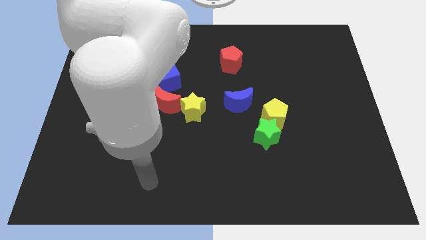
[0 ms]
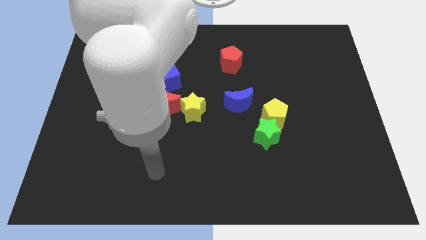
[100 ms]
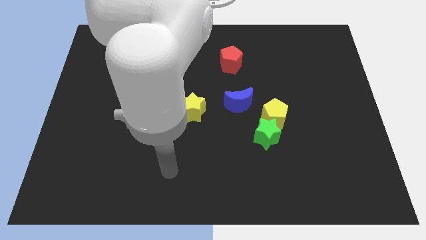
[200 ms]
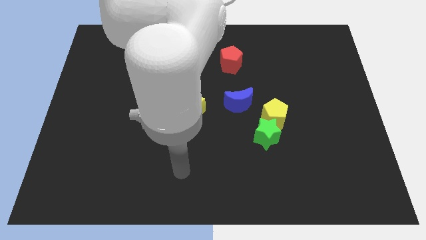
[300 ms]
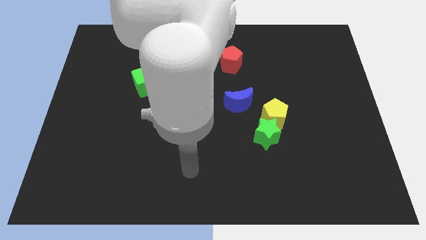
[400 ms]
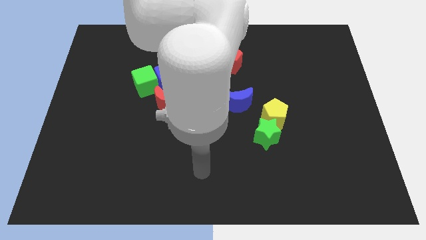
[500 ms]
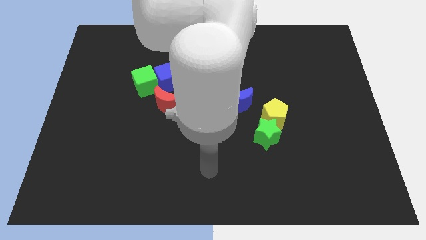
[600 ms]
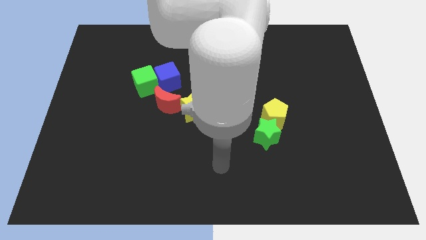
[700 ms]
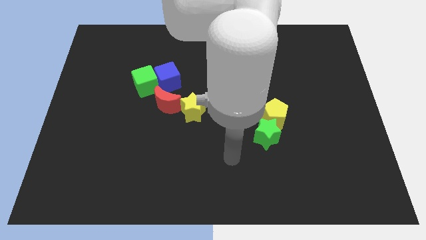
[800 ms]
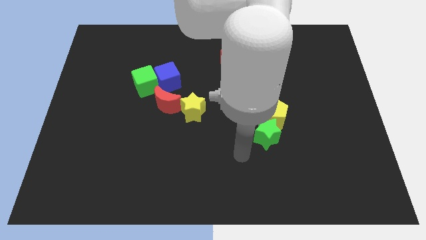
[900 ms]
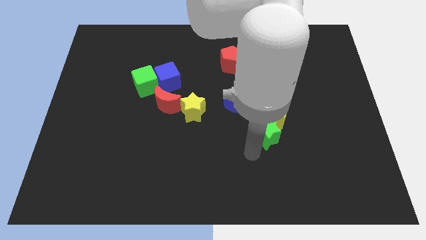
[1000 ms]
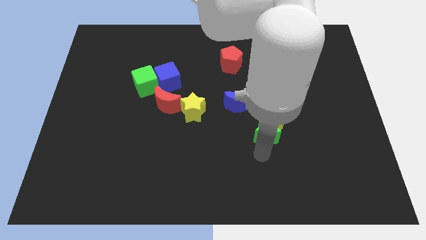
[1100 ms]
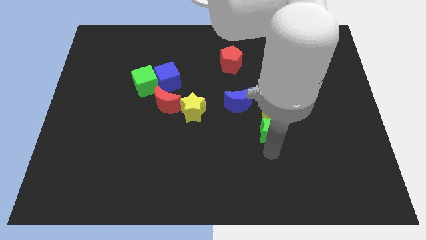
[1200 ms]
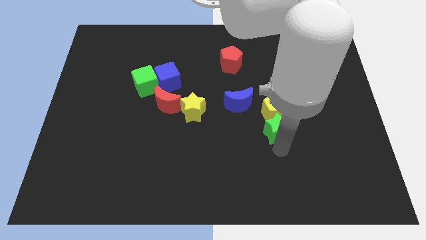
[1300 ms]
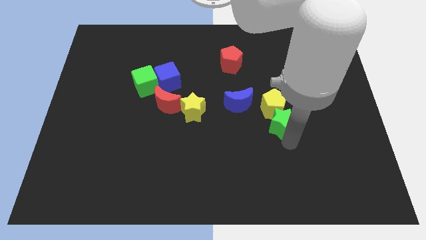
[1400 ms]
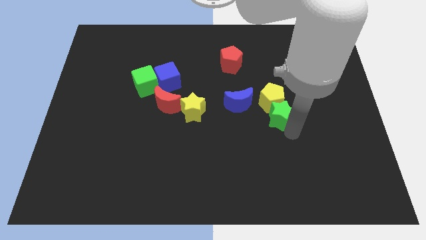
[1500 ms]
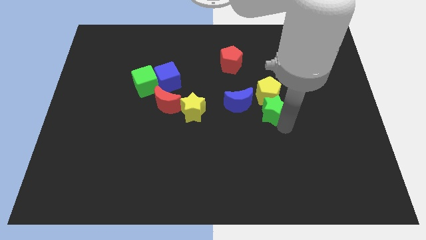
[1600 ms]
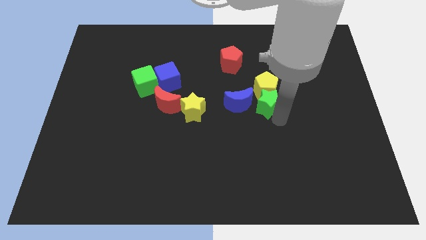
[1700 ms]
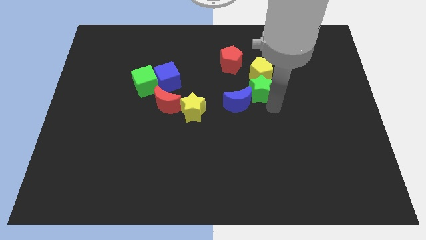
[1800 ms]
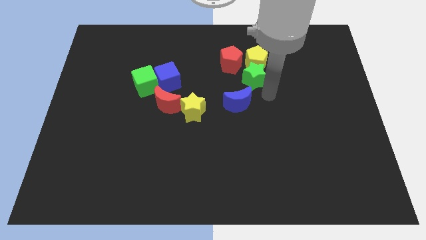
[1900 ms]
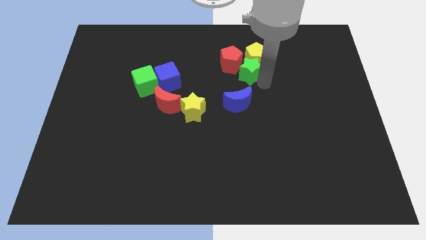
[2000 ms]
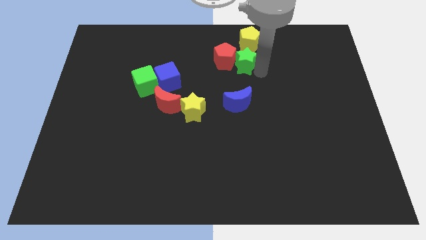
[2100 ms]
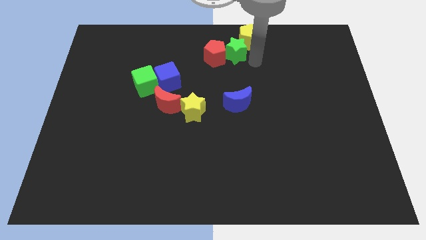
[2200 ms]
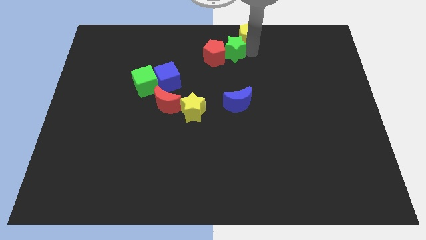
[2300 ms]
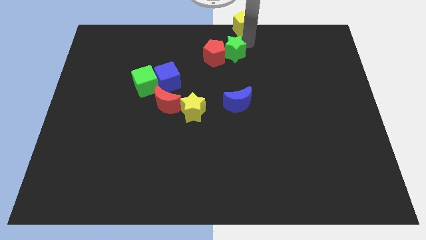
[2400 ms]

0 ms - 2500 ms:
separate the green star from the yellow pentagon

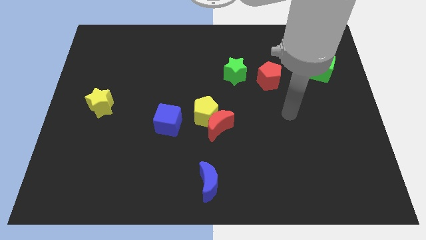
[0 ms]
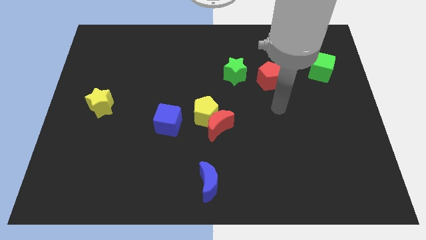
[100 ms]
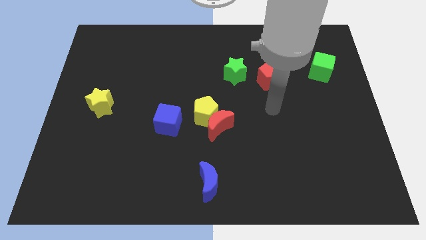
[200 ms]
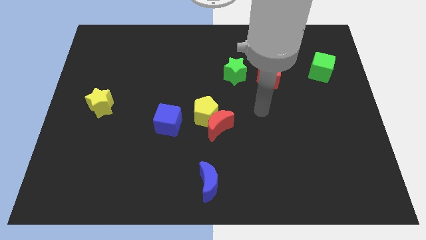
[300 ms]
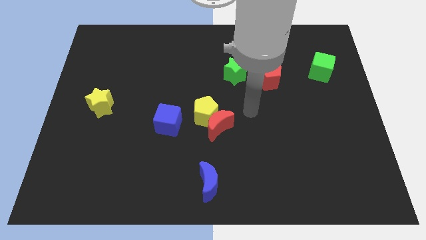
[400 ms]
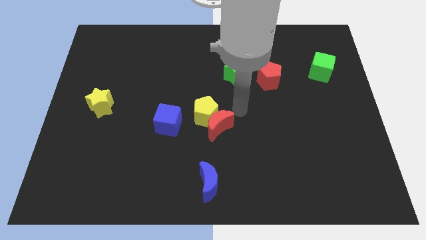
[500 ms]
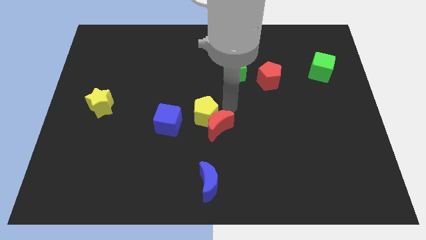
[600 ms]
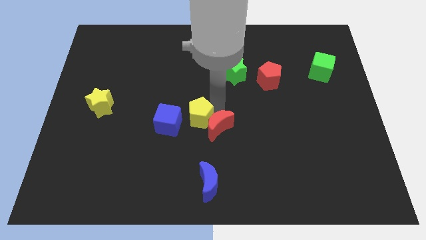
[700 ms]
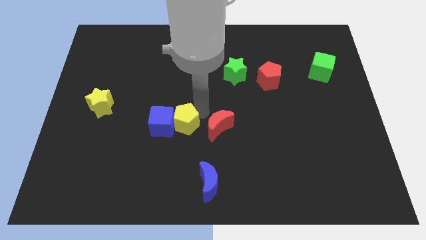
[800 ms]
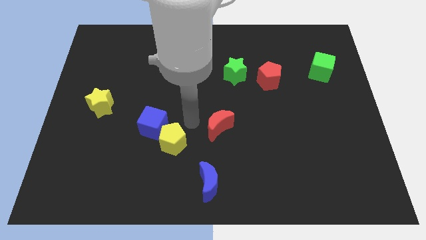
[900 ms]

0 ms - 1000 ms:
separate the red moon from the yellow pentagon

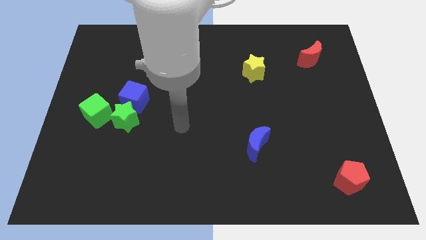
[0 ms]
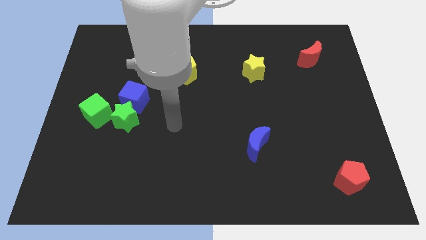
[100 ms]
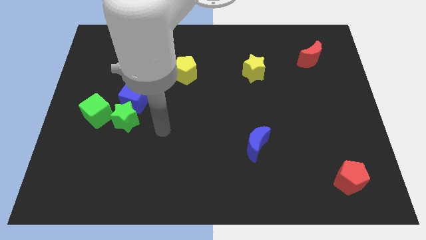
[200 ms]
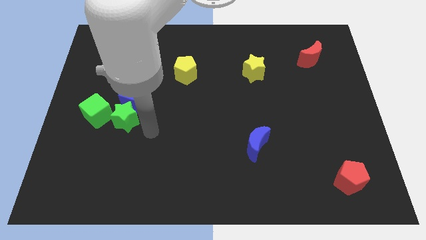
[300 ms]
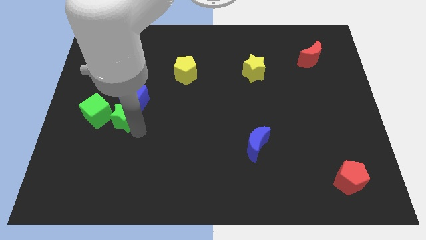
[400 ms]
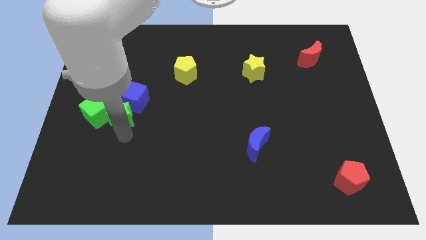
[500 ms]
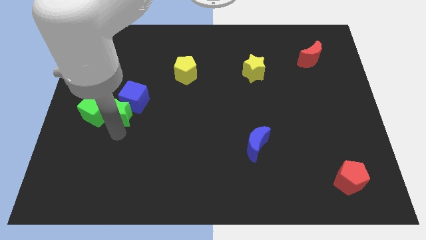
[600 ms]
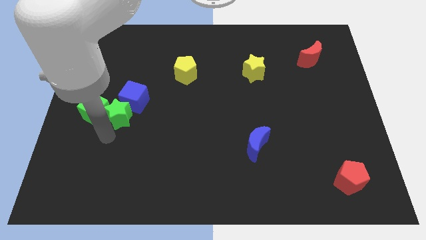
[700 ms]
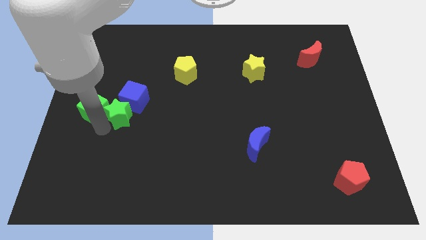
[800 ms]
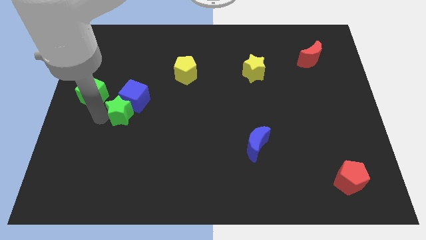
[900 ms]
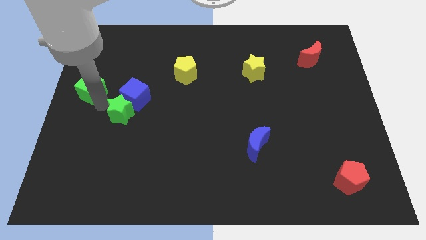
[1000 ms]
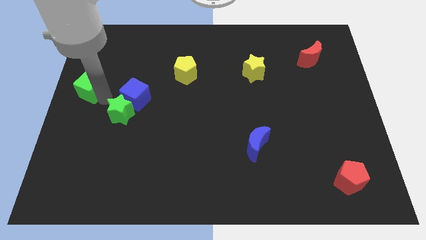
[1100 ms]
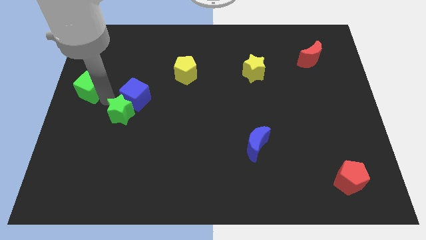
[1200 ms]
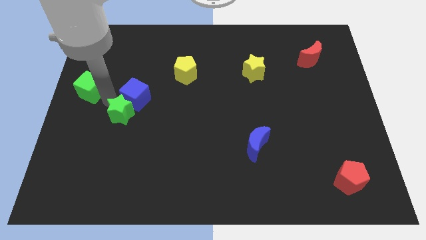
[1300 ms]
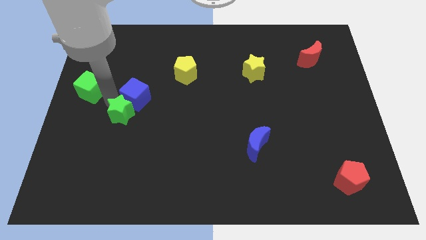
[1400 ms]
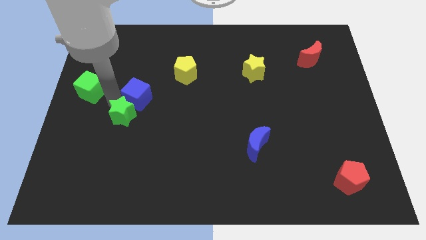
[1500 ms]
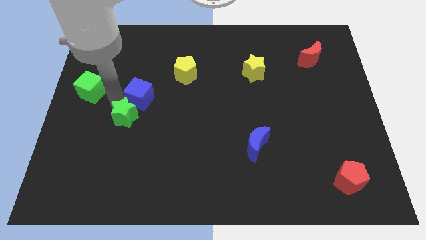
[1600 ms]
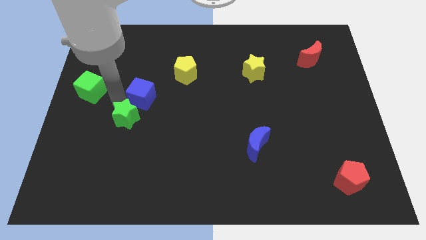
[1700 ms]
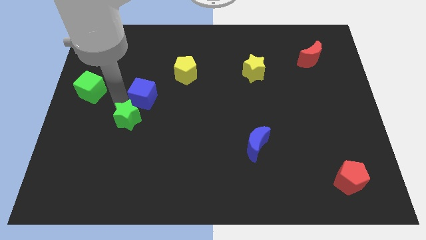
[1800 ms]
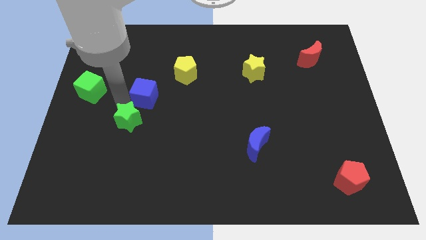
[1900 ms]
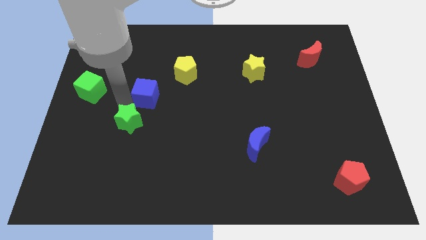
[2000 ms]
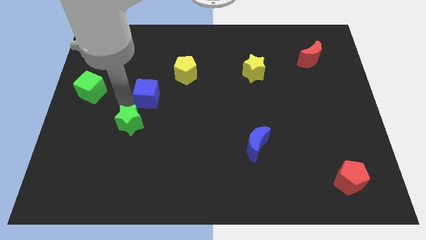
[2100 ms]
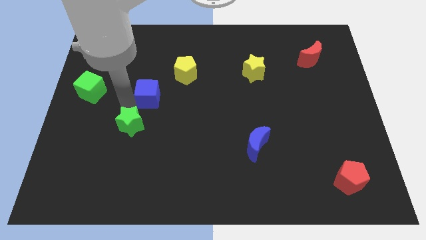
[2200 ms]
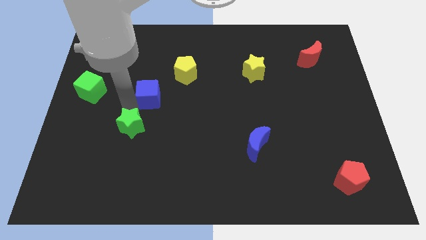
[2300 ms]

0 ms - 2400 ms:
pull the green star apart from the blue cube and green cube

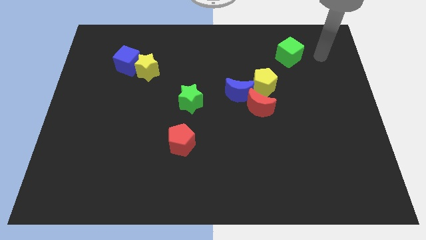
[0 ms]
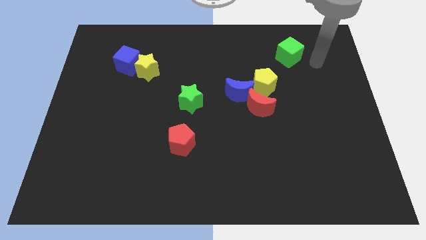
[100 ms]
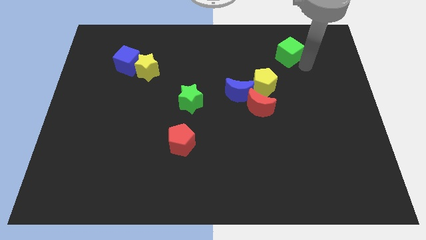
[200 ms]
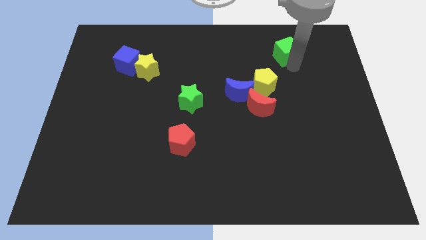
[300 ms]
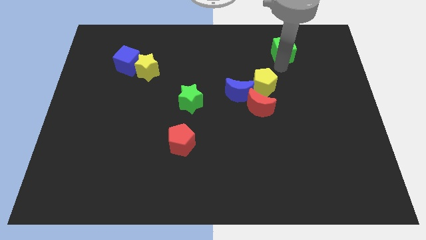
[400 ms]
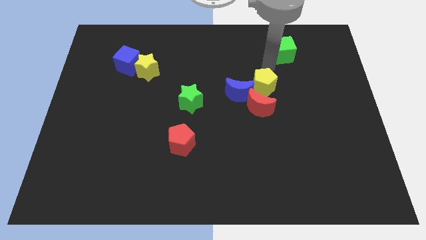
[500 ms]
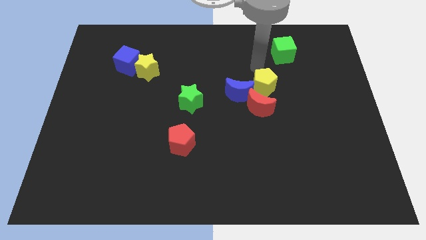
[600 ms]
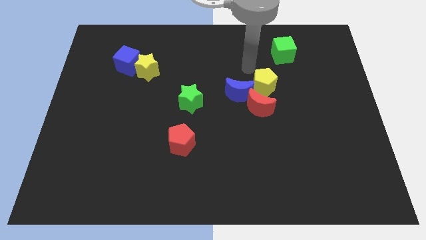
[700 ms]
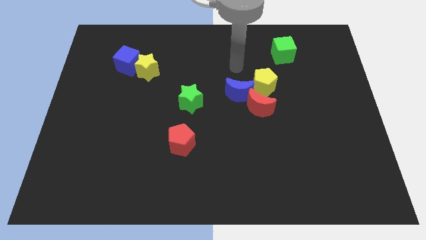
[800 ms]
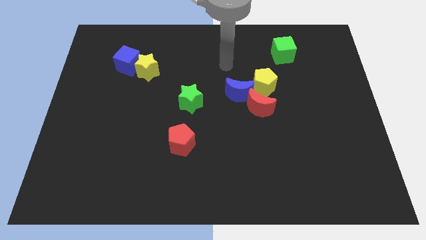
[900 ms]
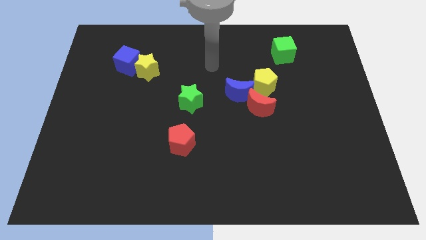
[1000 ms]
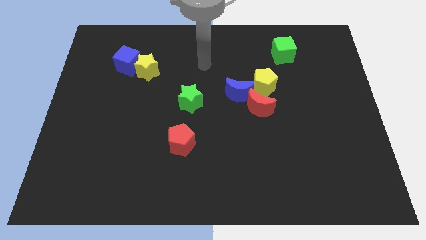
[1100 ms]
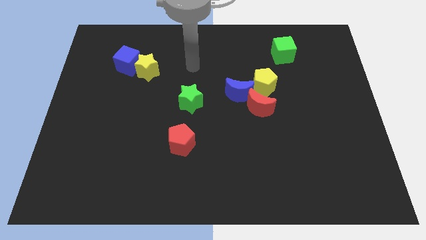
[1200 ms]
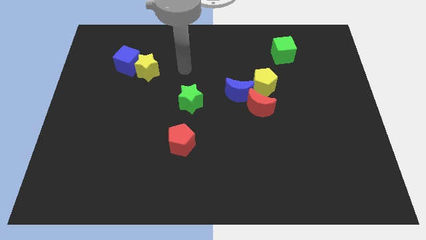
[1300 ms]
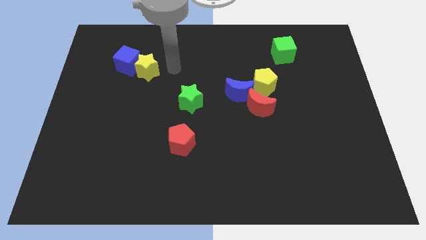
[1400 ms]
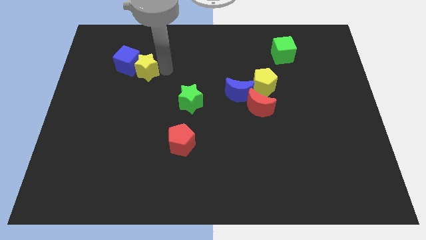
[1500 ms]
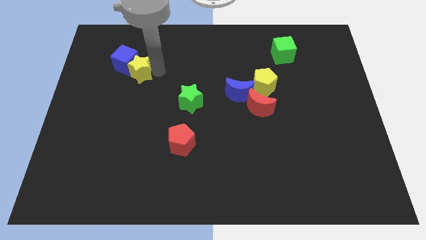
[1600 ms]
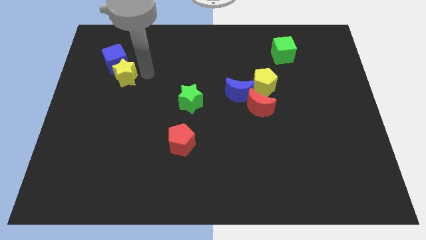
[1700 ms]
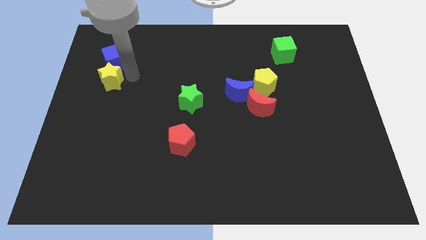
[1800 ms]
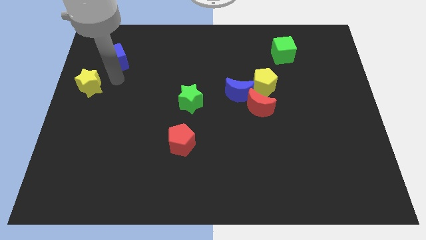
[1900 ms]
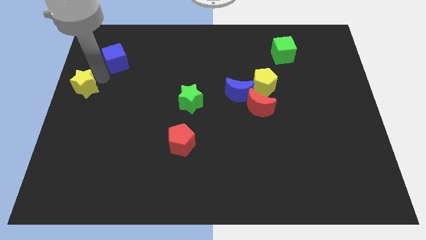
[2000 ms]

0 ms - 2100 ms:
move the blue cube away from the yellow star

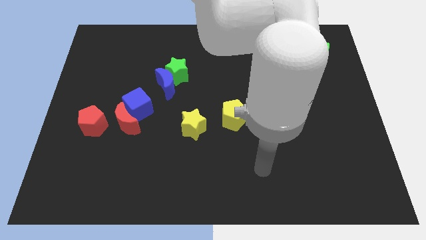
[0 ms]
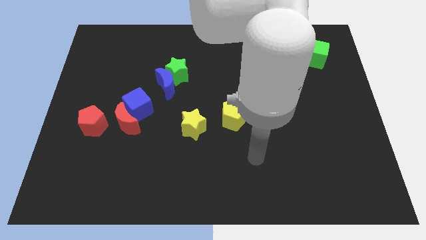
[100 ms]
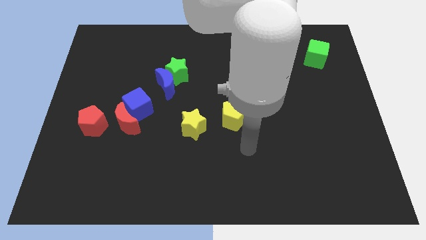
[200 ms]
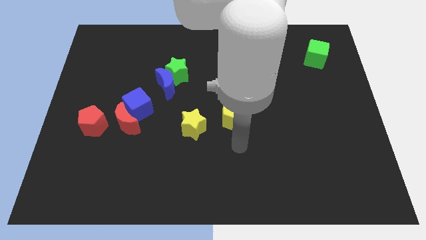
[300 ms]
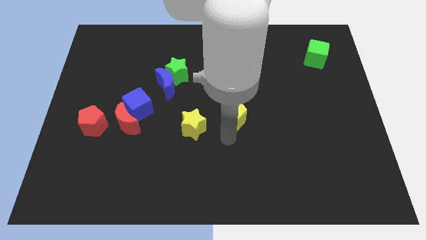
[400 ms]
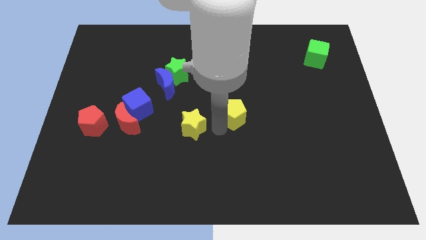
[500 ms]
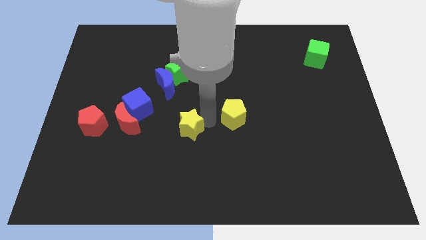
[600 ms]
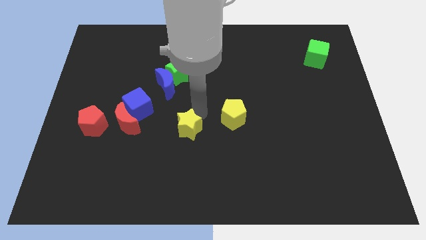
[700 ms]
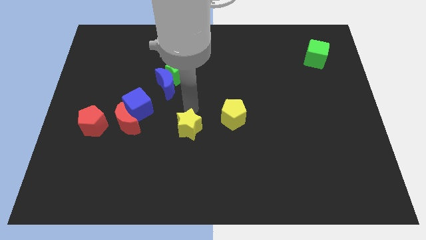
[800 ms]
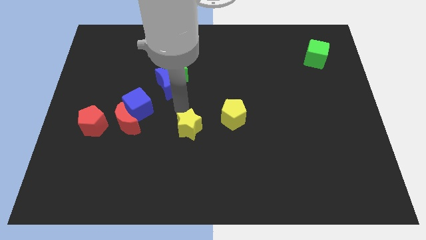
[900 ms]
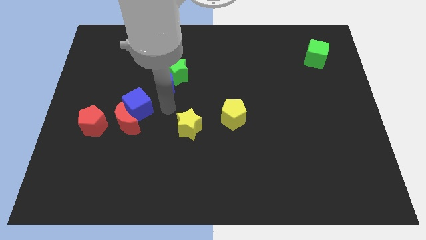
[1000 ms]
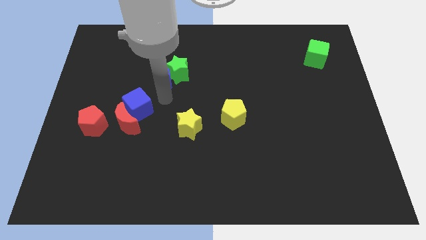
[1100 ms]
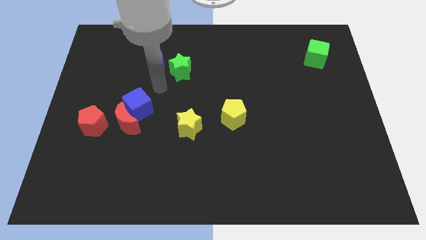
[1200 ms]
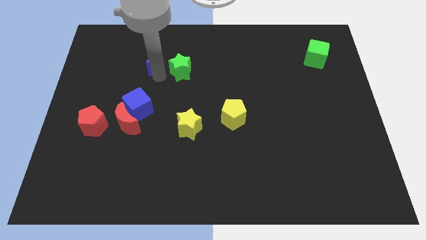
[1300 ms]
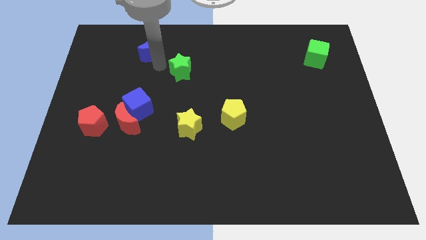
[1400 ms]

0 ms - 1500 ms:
separate the green star from the blue moon

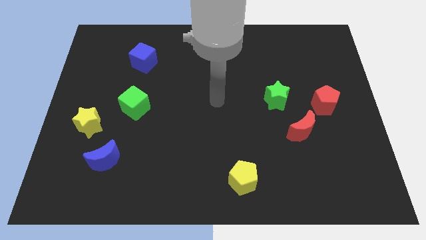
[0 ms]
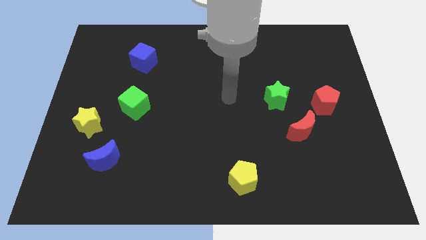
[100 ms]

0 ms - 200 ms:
pull the red pentagon apart from the red moon
